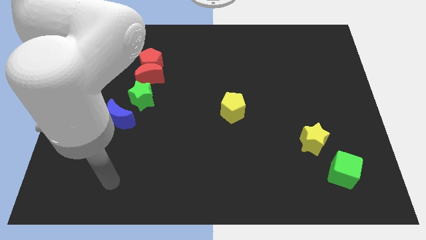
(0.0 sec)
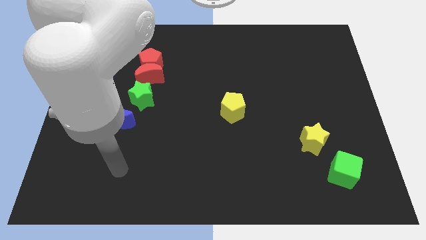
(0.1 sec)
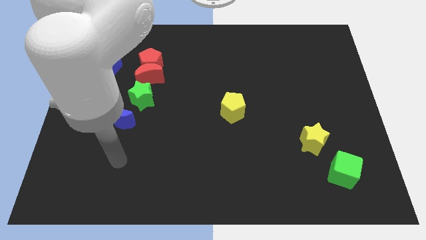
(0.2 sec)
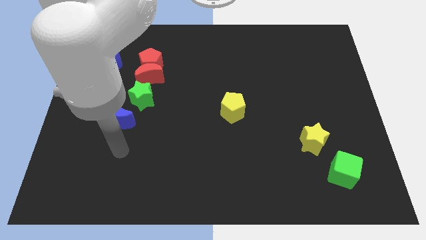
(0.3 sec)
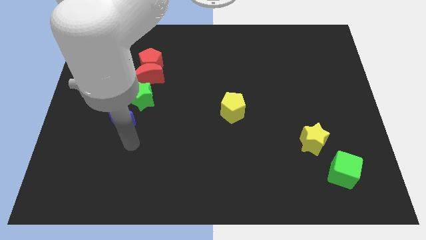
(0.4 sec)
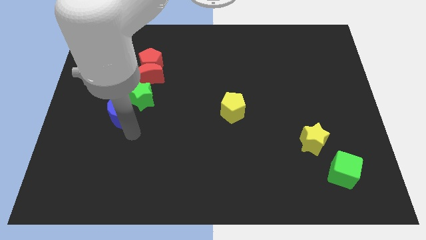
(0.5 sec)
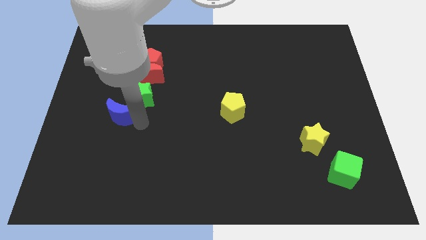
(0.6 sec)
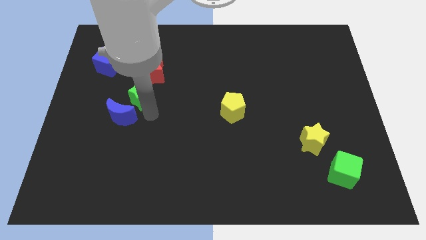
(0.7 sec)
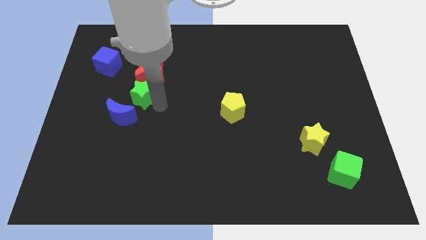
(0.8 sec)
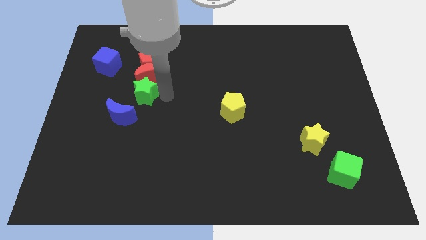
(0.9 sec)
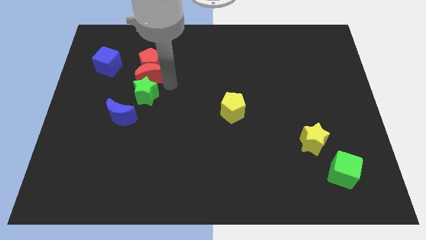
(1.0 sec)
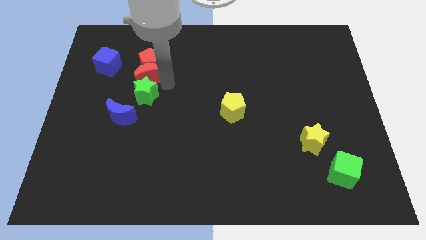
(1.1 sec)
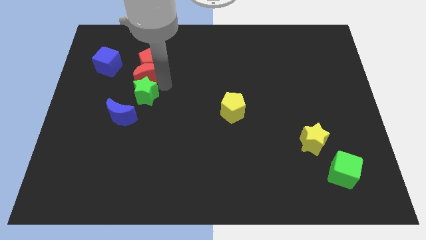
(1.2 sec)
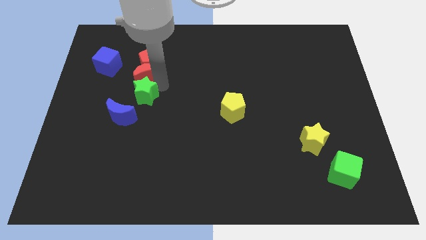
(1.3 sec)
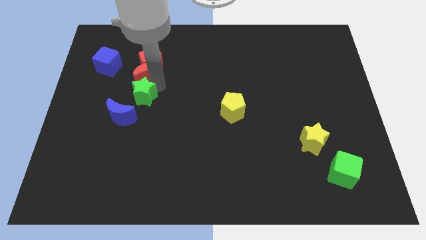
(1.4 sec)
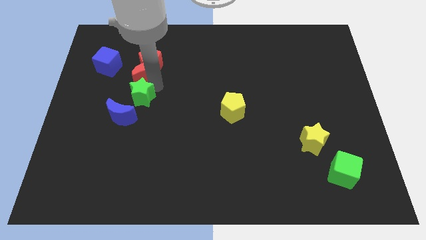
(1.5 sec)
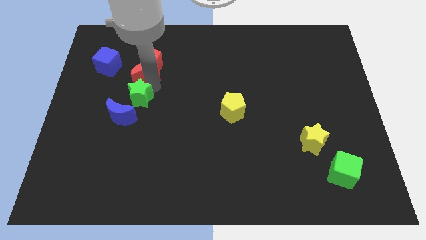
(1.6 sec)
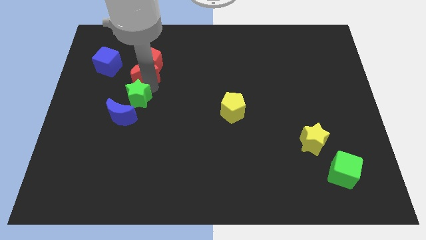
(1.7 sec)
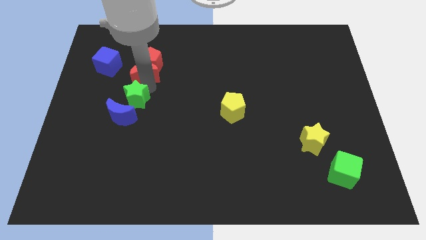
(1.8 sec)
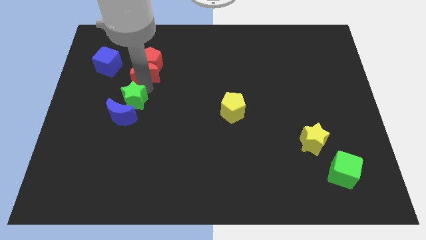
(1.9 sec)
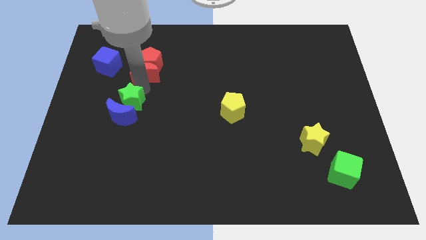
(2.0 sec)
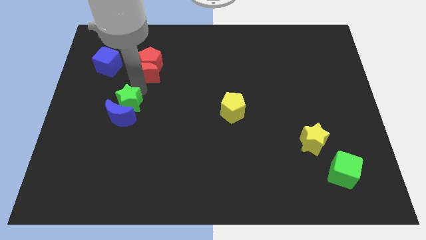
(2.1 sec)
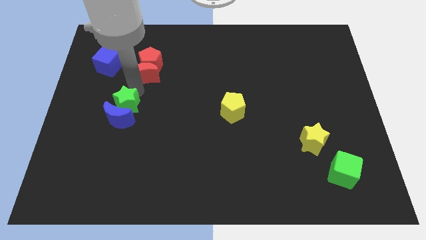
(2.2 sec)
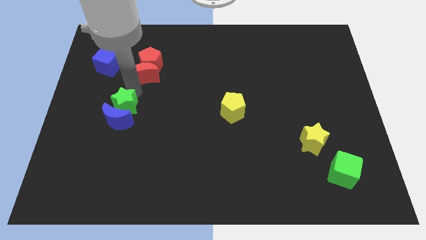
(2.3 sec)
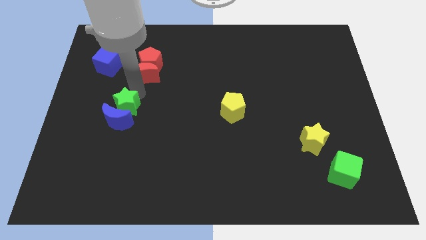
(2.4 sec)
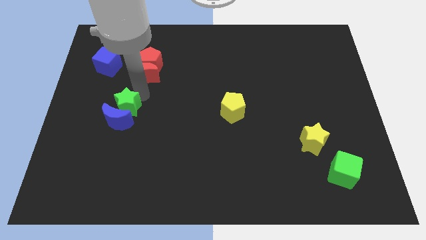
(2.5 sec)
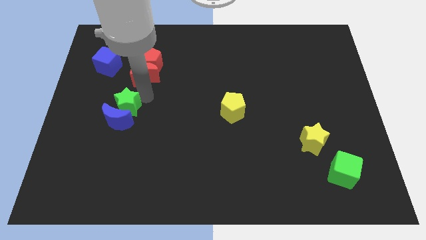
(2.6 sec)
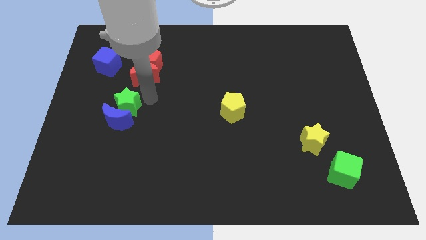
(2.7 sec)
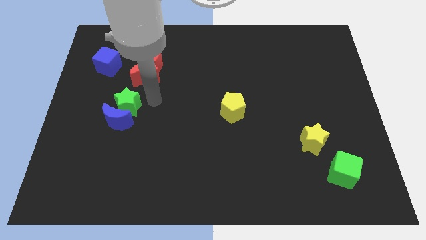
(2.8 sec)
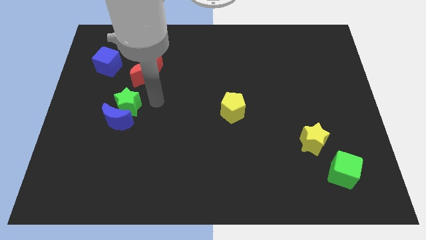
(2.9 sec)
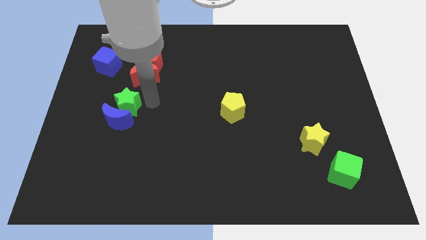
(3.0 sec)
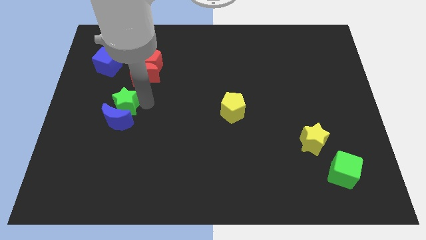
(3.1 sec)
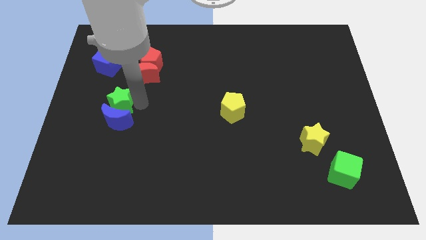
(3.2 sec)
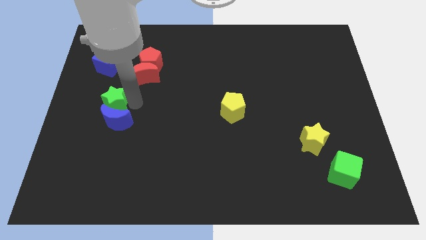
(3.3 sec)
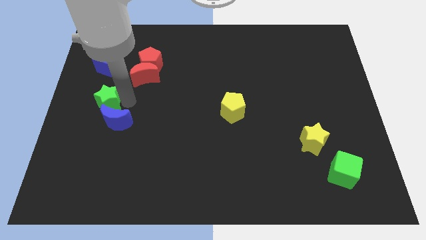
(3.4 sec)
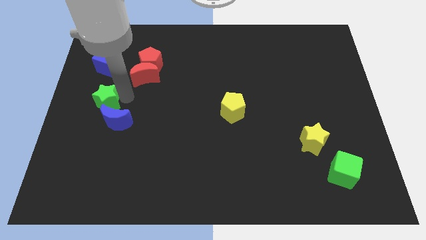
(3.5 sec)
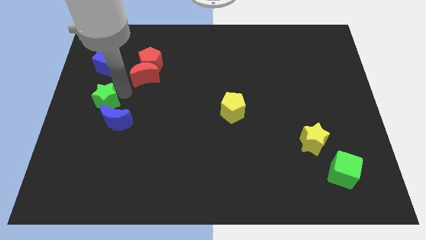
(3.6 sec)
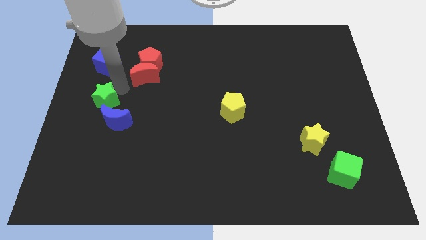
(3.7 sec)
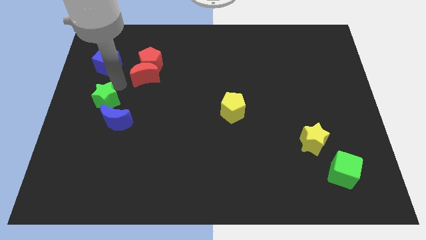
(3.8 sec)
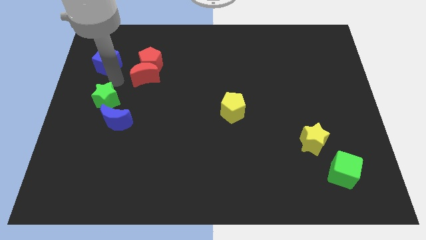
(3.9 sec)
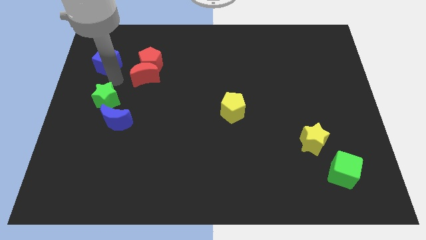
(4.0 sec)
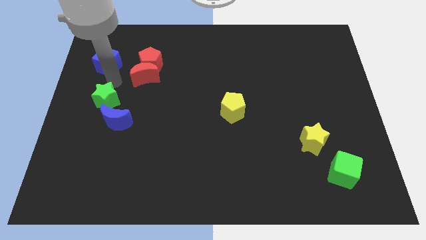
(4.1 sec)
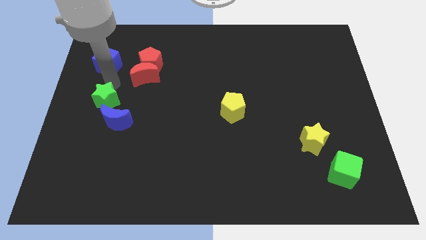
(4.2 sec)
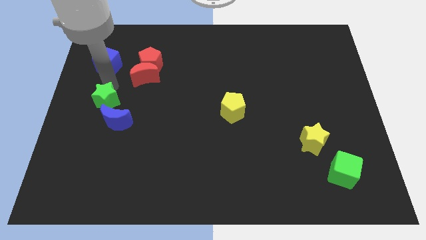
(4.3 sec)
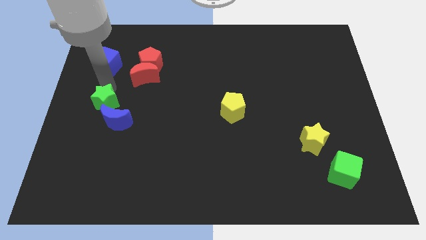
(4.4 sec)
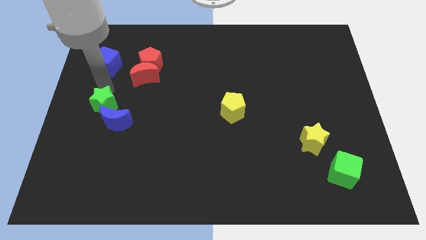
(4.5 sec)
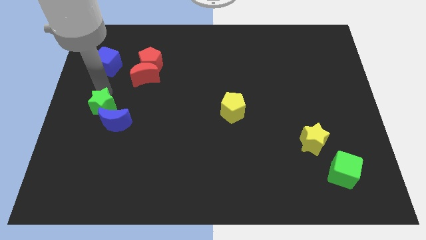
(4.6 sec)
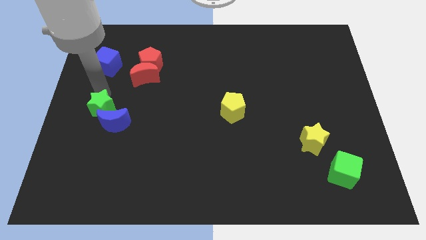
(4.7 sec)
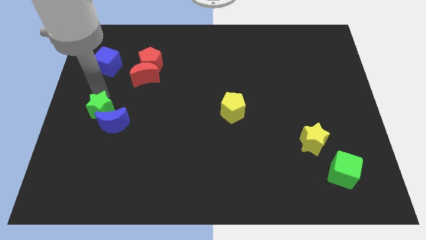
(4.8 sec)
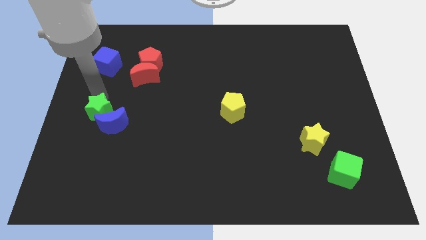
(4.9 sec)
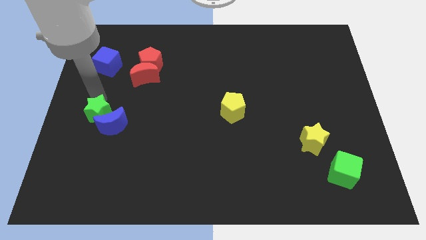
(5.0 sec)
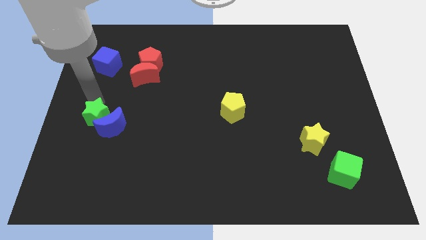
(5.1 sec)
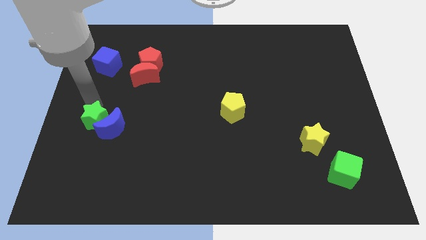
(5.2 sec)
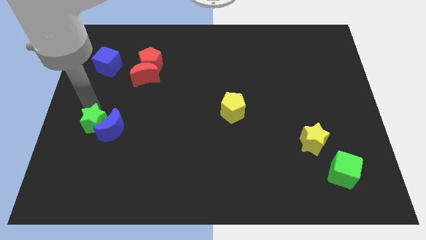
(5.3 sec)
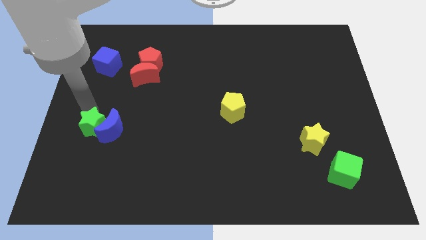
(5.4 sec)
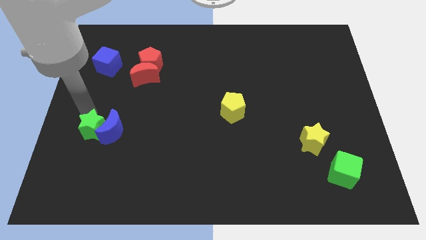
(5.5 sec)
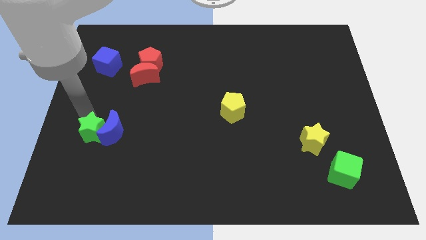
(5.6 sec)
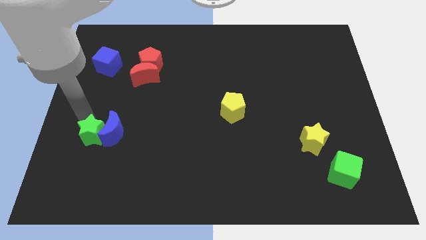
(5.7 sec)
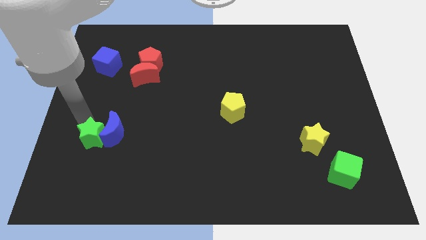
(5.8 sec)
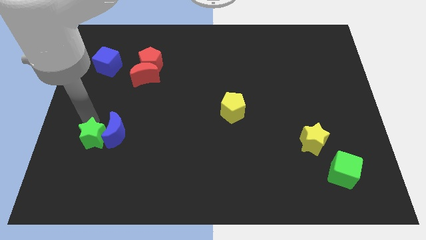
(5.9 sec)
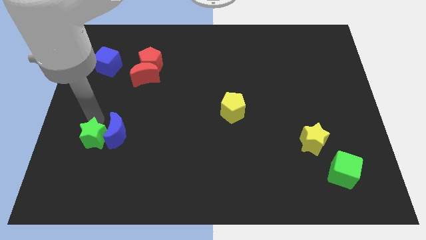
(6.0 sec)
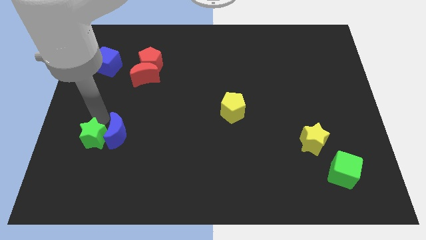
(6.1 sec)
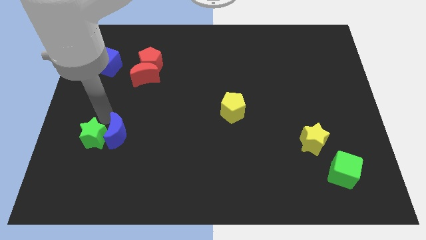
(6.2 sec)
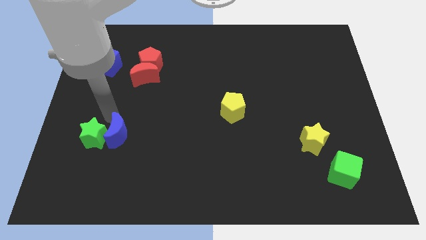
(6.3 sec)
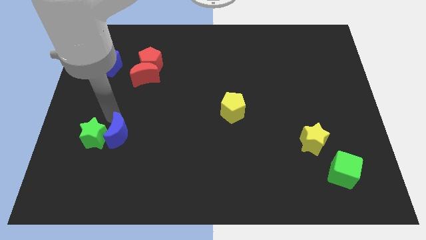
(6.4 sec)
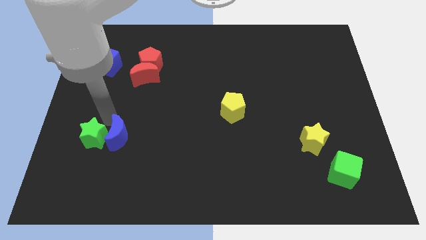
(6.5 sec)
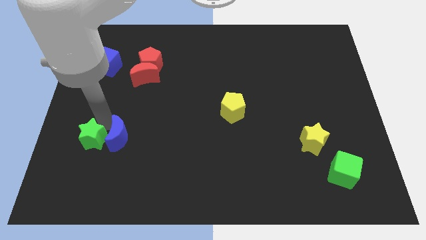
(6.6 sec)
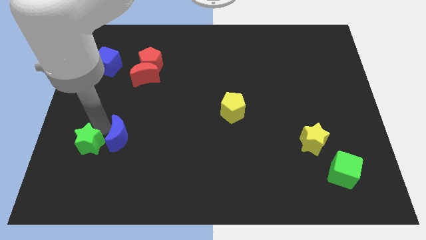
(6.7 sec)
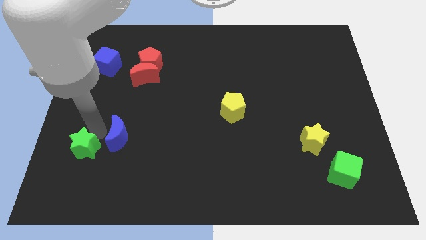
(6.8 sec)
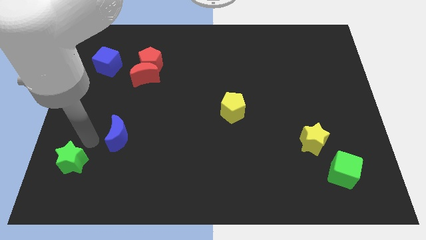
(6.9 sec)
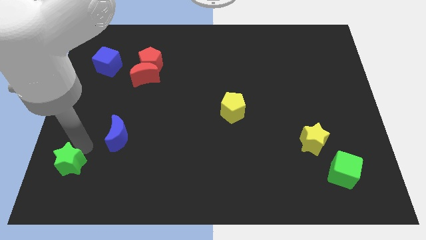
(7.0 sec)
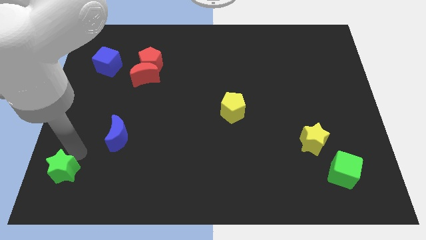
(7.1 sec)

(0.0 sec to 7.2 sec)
put the green star to the bottom left
